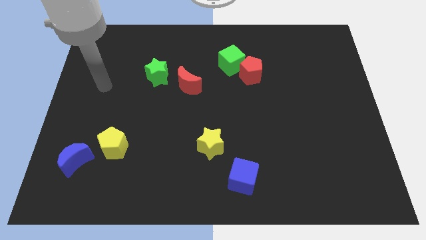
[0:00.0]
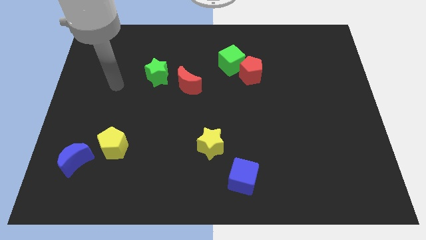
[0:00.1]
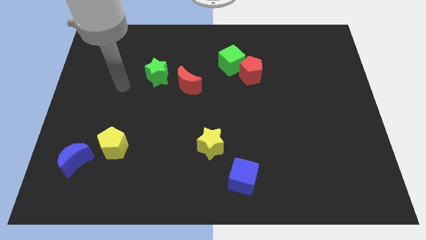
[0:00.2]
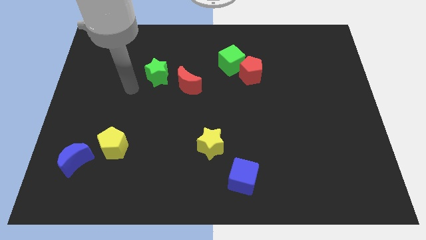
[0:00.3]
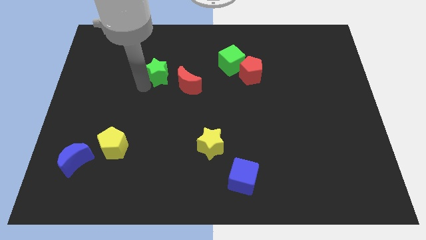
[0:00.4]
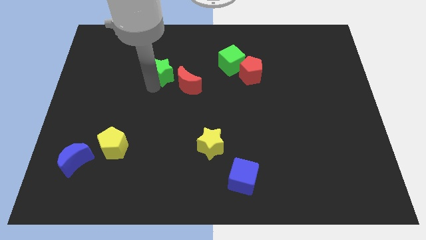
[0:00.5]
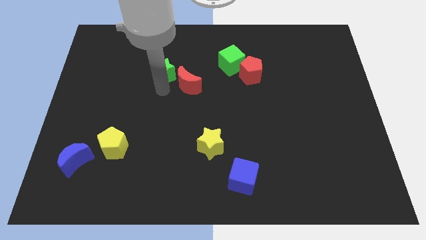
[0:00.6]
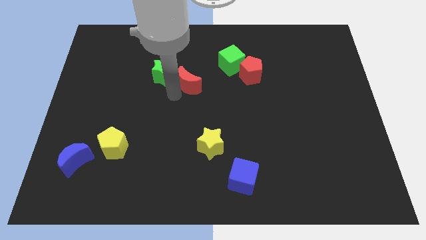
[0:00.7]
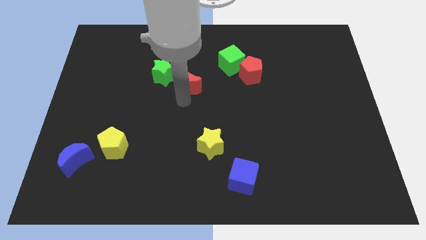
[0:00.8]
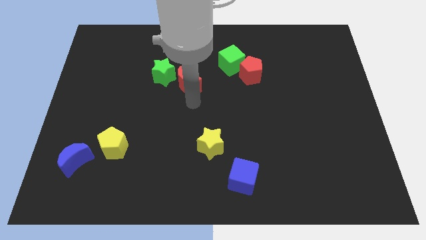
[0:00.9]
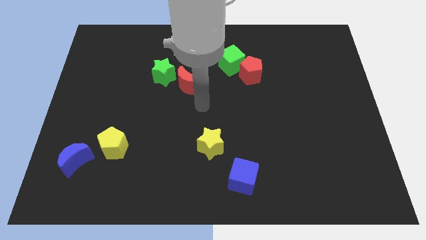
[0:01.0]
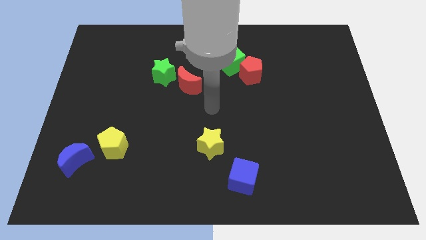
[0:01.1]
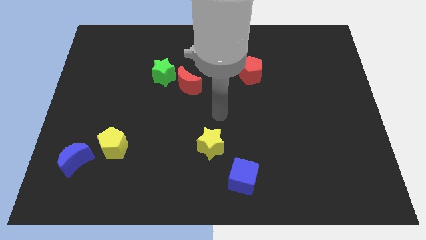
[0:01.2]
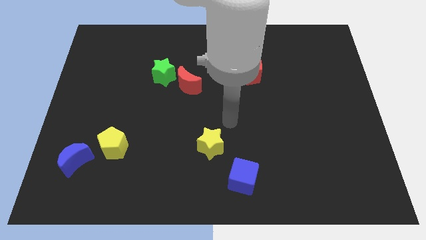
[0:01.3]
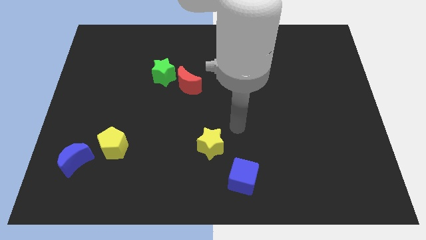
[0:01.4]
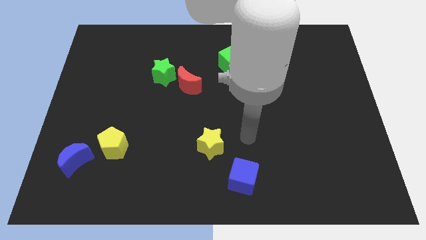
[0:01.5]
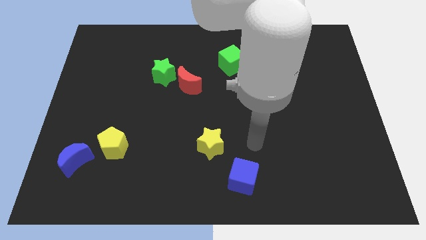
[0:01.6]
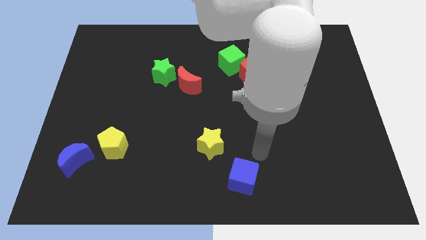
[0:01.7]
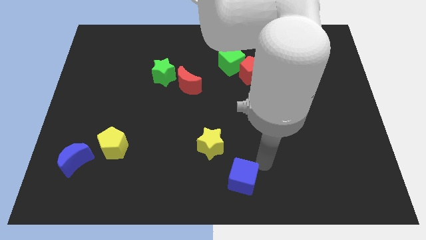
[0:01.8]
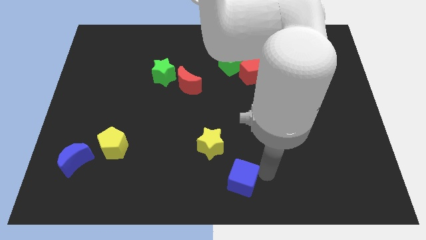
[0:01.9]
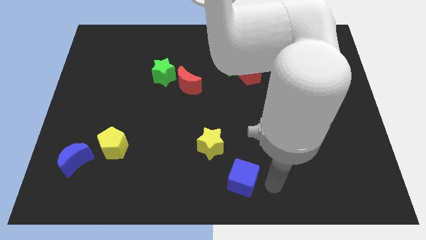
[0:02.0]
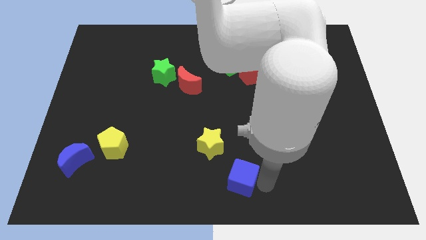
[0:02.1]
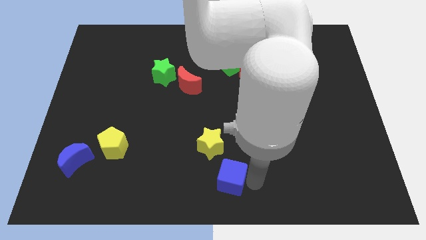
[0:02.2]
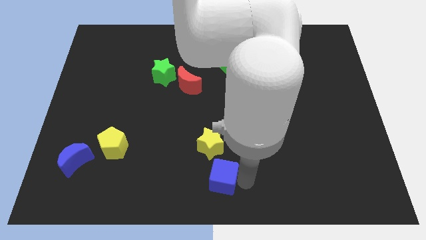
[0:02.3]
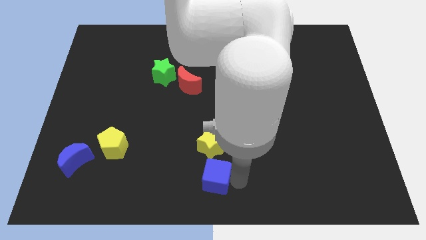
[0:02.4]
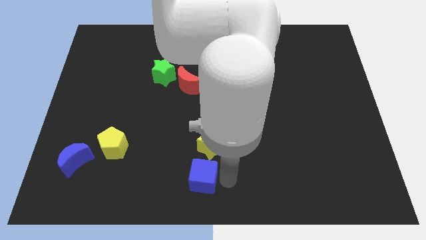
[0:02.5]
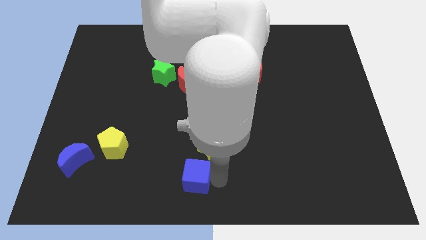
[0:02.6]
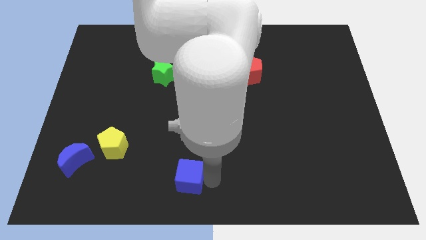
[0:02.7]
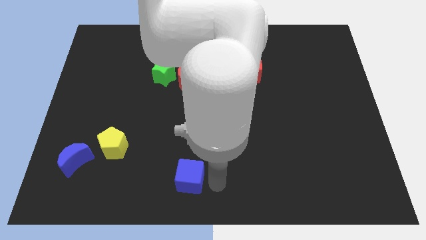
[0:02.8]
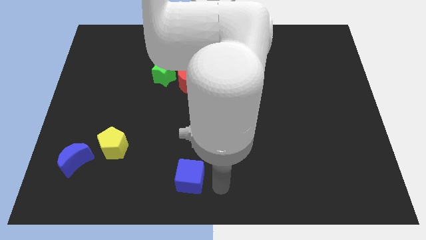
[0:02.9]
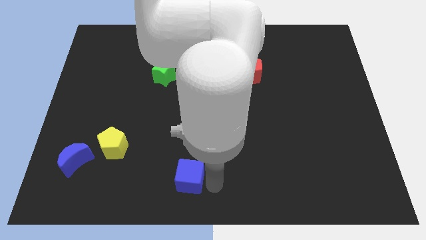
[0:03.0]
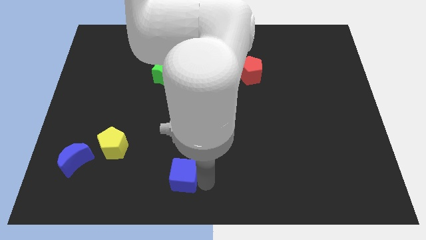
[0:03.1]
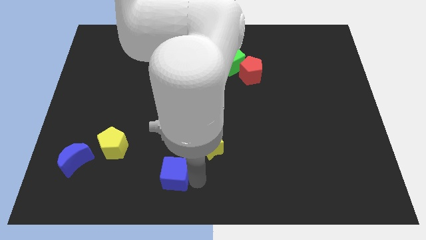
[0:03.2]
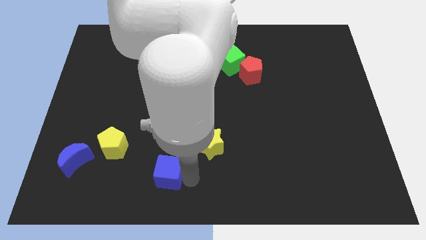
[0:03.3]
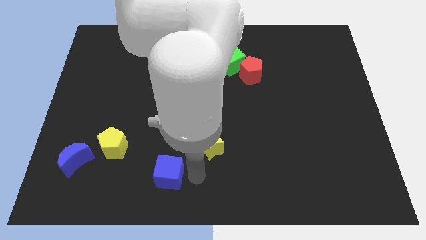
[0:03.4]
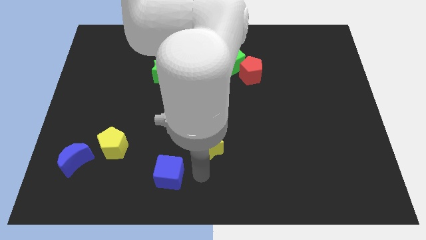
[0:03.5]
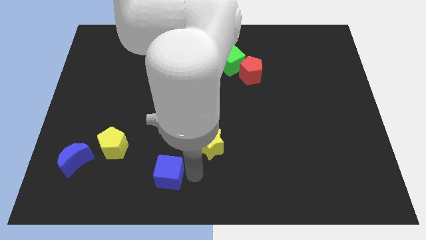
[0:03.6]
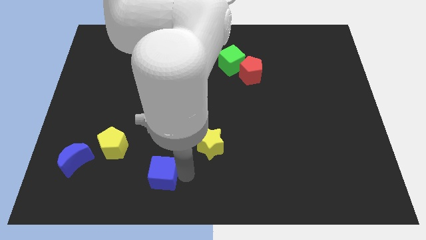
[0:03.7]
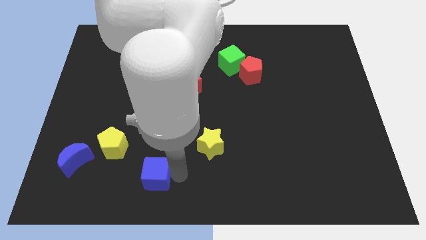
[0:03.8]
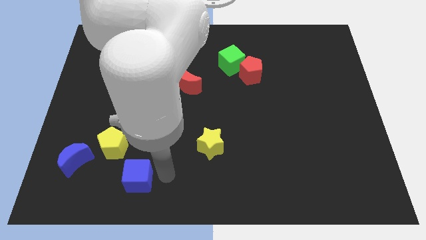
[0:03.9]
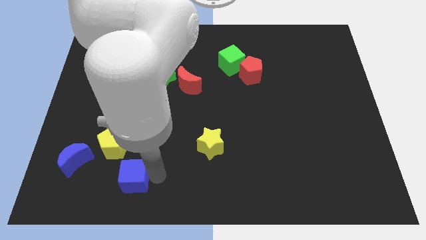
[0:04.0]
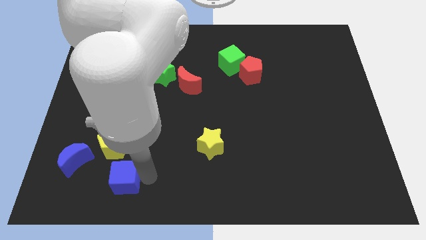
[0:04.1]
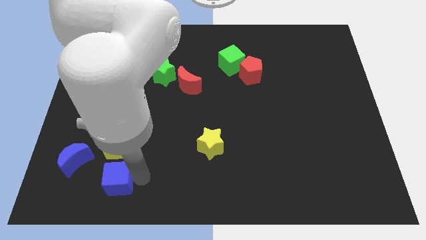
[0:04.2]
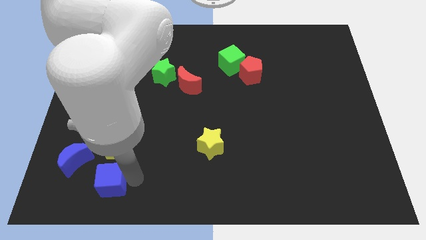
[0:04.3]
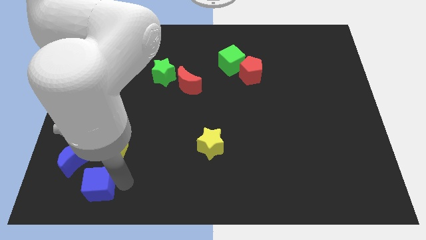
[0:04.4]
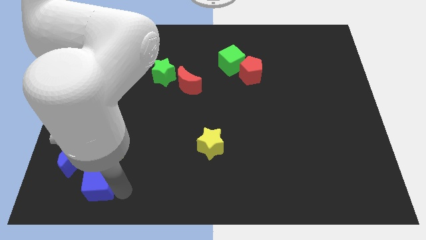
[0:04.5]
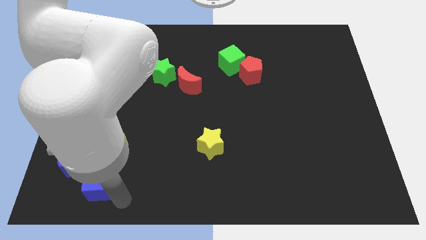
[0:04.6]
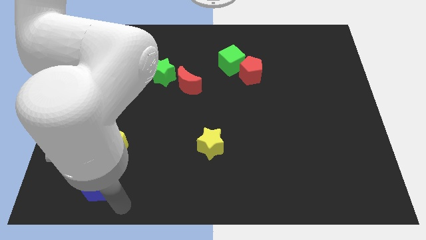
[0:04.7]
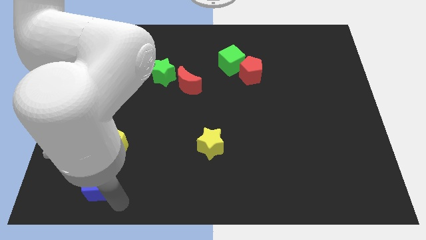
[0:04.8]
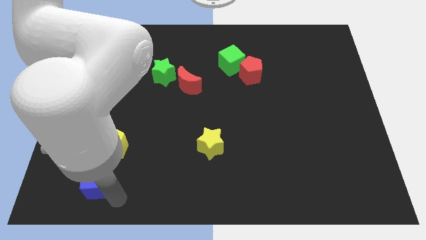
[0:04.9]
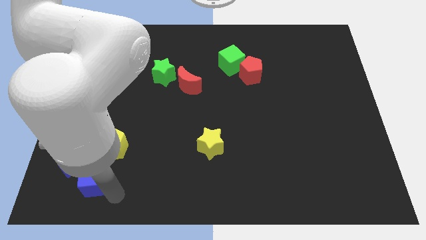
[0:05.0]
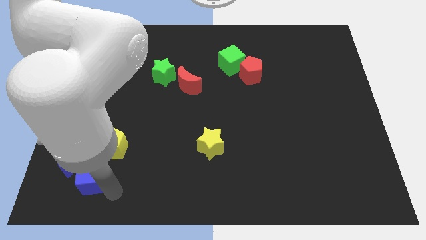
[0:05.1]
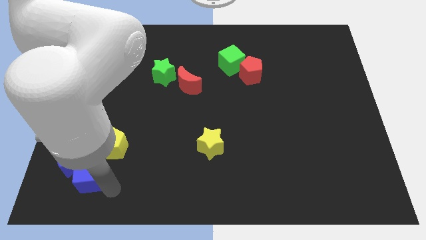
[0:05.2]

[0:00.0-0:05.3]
slide the blue cube next to the blue moon

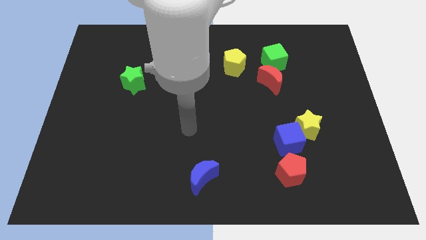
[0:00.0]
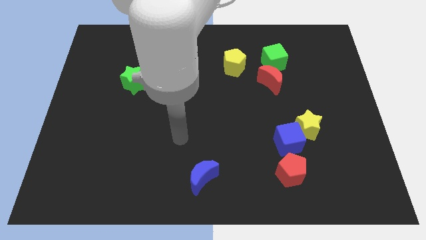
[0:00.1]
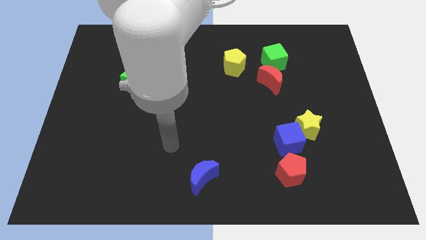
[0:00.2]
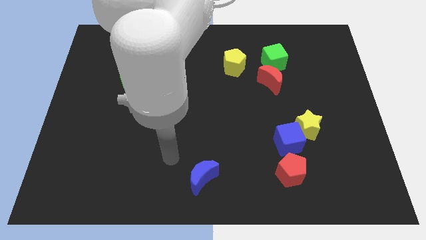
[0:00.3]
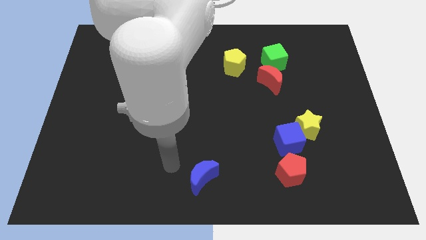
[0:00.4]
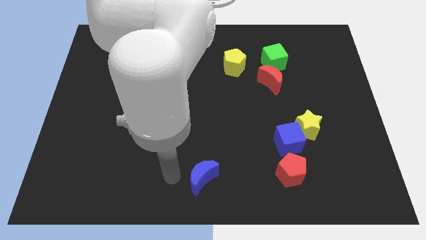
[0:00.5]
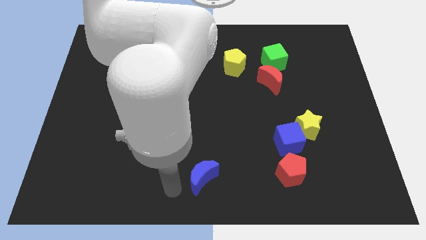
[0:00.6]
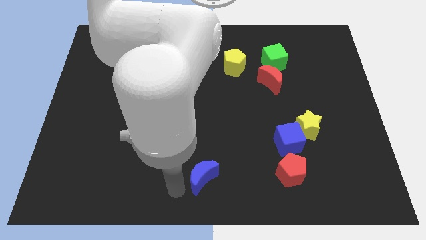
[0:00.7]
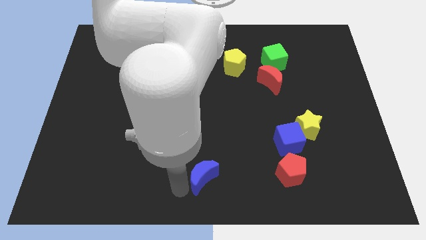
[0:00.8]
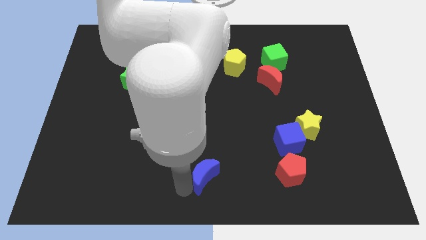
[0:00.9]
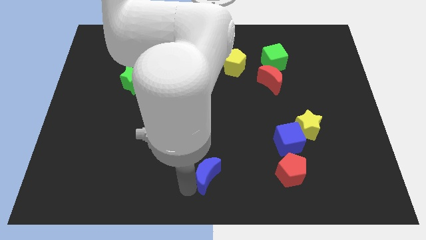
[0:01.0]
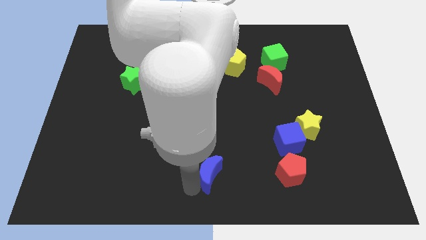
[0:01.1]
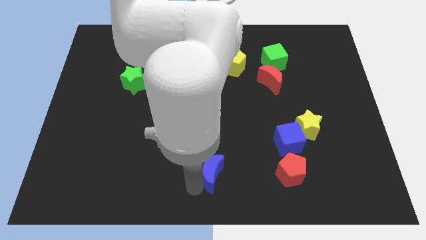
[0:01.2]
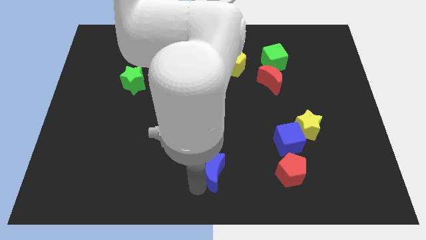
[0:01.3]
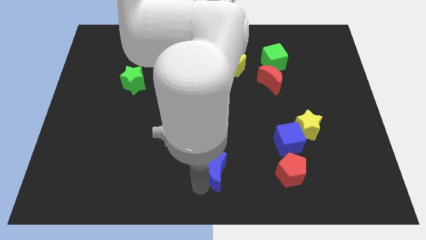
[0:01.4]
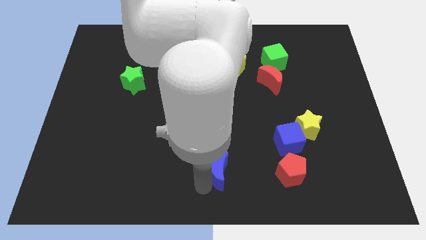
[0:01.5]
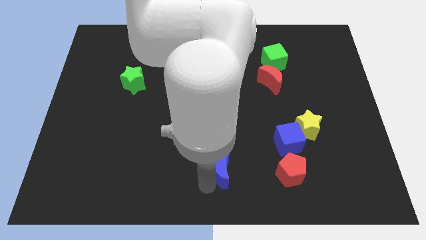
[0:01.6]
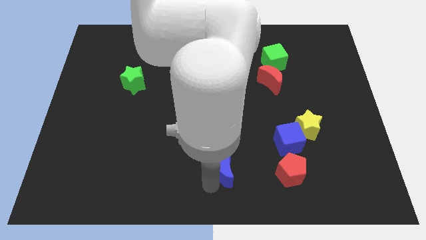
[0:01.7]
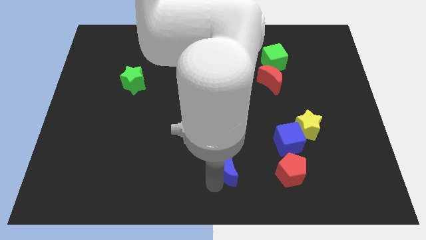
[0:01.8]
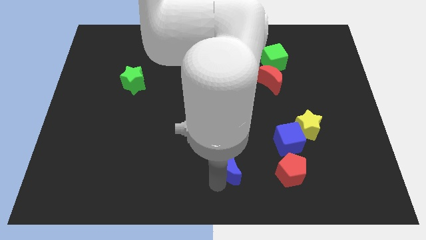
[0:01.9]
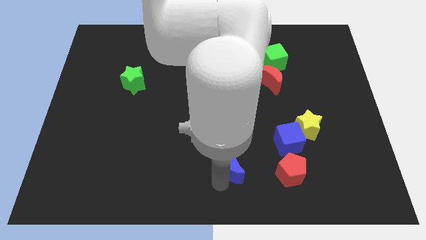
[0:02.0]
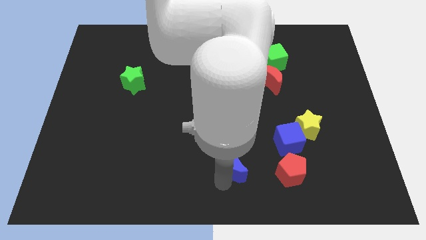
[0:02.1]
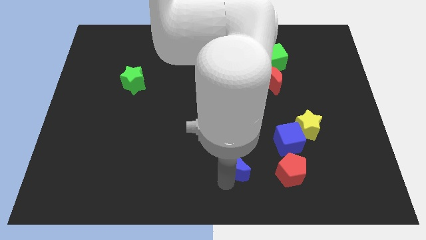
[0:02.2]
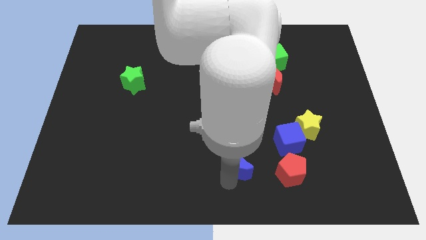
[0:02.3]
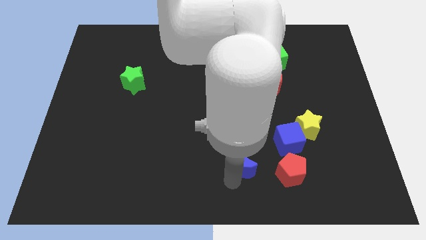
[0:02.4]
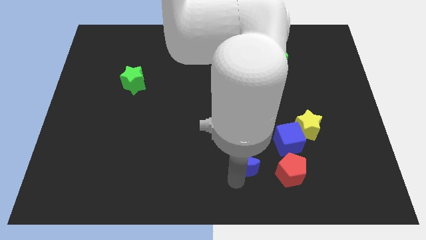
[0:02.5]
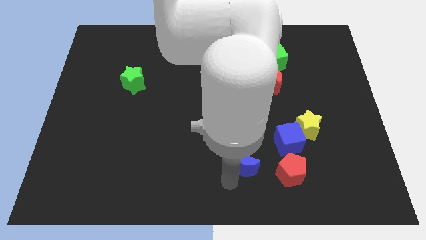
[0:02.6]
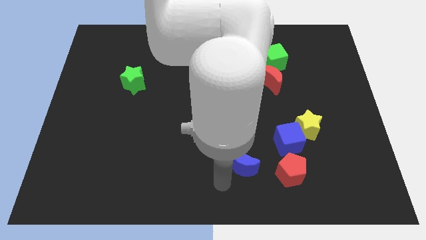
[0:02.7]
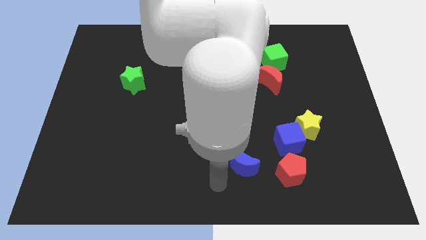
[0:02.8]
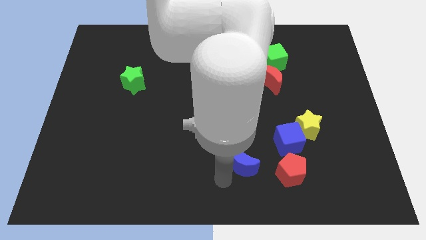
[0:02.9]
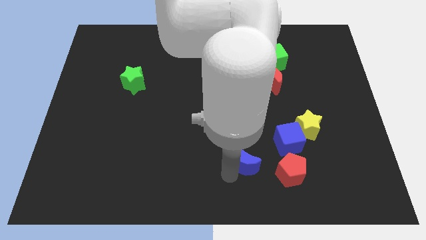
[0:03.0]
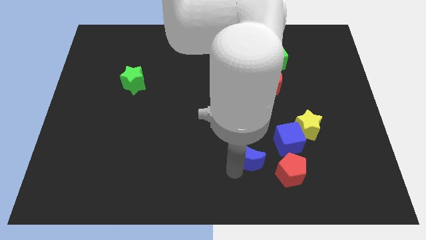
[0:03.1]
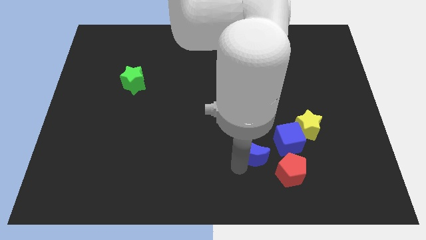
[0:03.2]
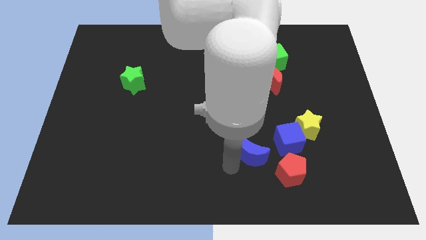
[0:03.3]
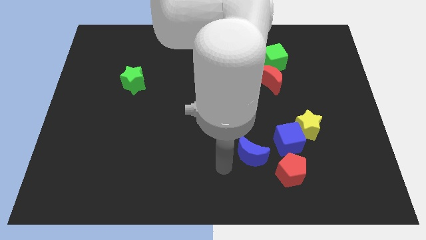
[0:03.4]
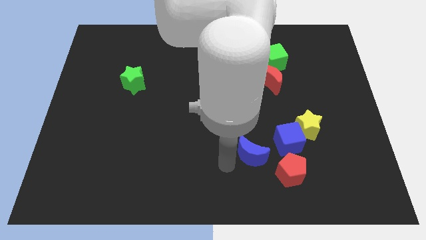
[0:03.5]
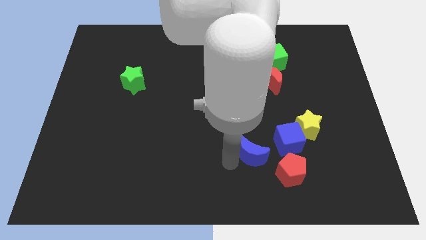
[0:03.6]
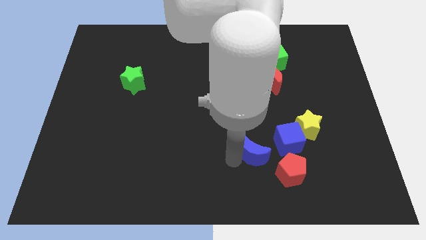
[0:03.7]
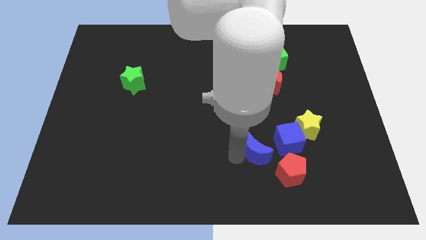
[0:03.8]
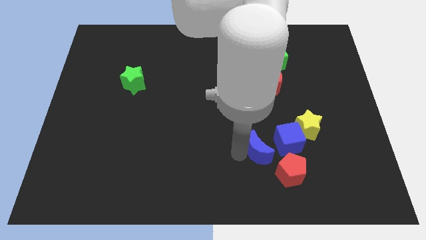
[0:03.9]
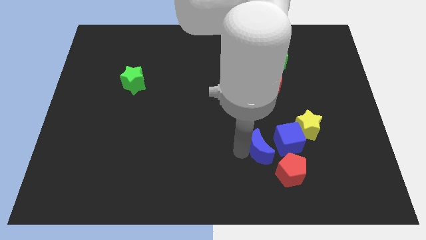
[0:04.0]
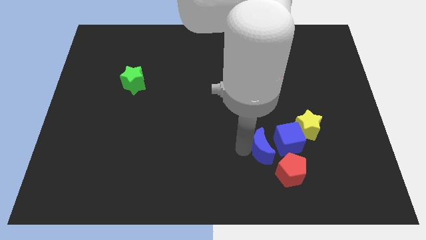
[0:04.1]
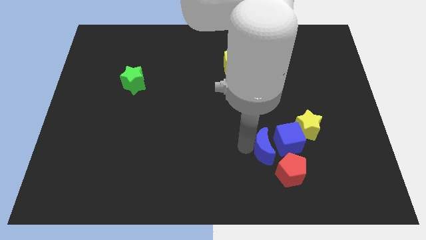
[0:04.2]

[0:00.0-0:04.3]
move the blue moon close to the blue cube
